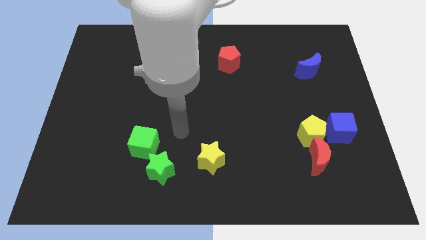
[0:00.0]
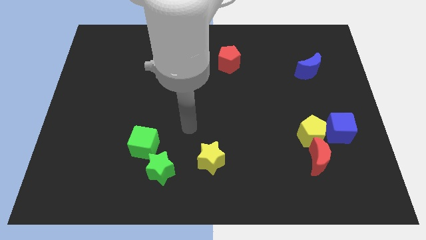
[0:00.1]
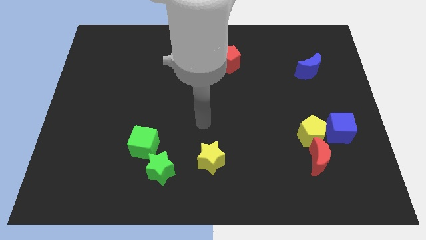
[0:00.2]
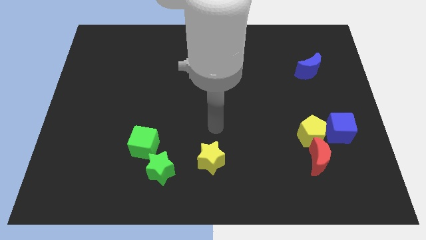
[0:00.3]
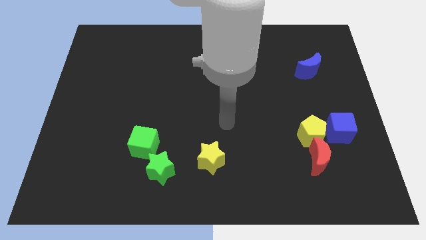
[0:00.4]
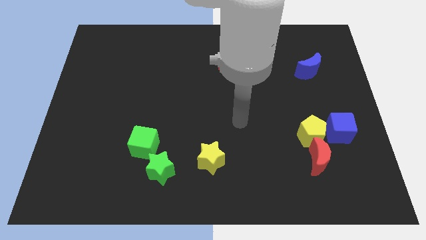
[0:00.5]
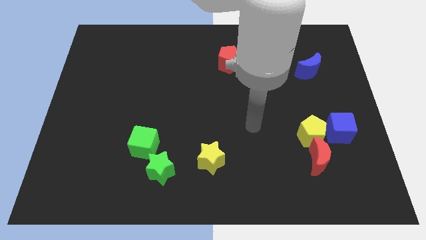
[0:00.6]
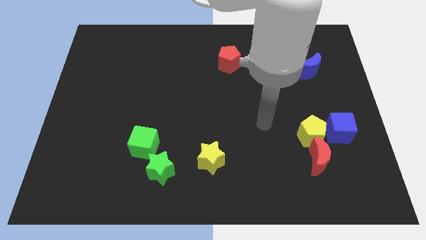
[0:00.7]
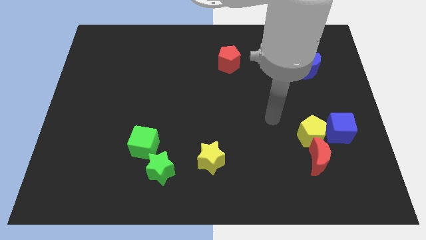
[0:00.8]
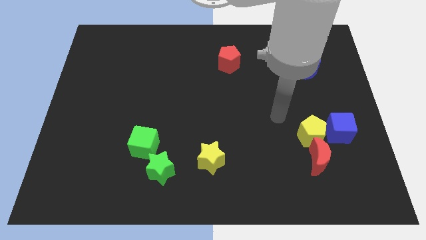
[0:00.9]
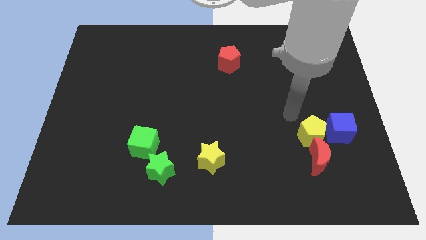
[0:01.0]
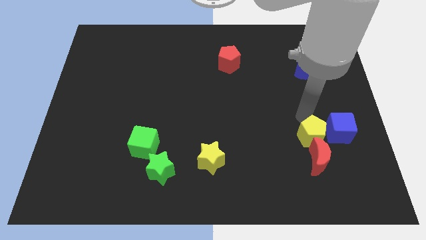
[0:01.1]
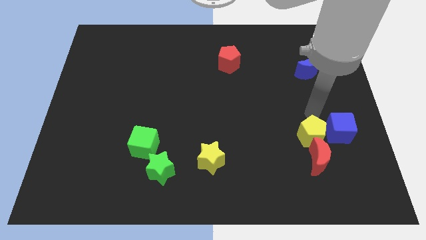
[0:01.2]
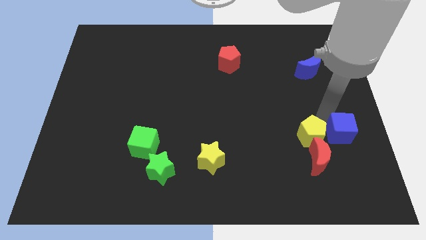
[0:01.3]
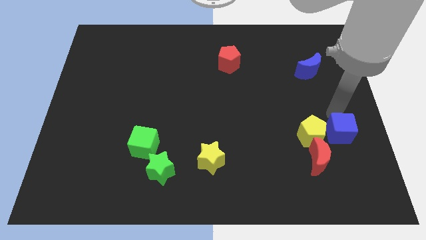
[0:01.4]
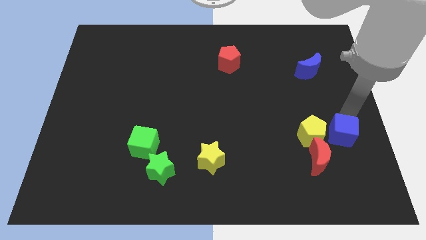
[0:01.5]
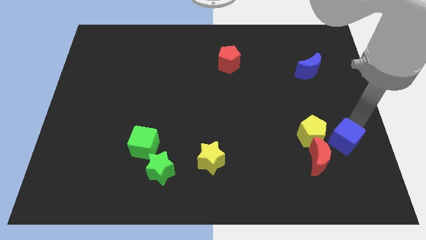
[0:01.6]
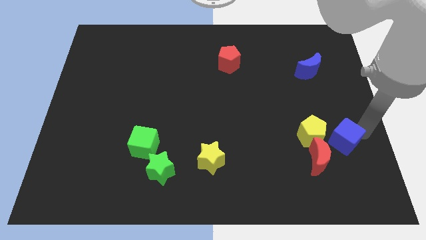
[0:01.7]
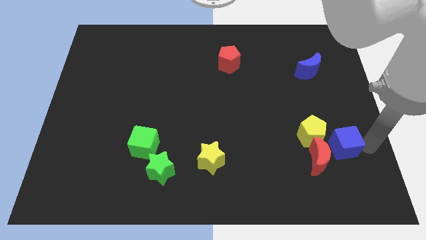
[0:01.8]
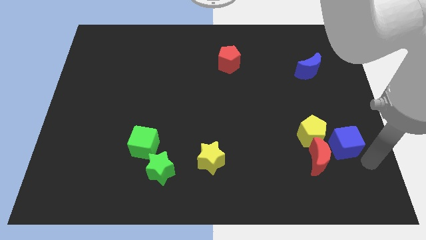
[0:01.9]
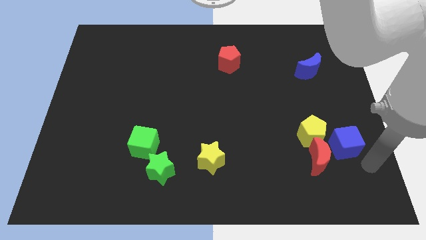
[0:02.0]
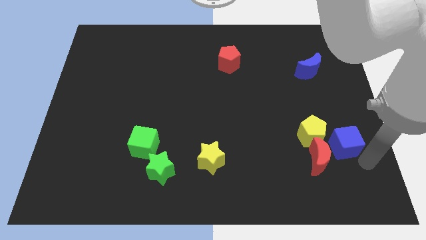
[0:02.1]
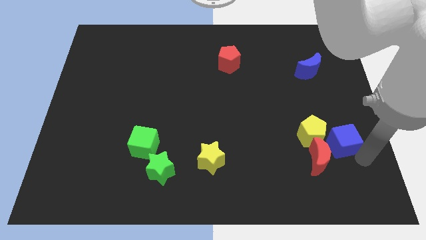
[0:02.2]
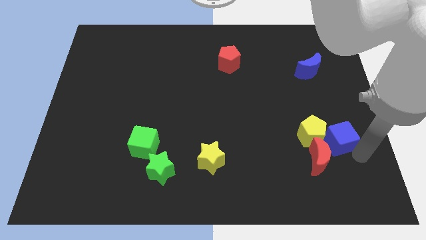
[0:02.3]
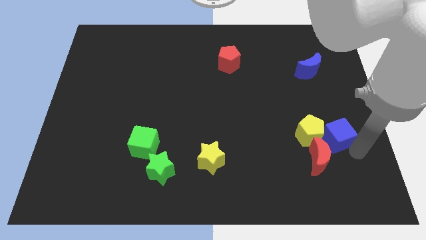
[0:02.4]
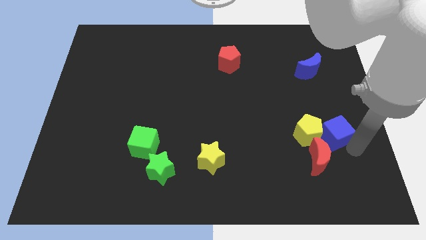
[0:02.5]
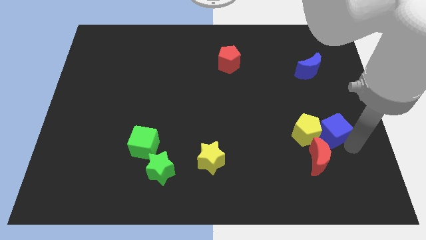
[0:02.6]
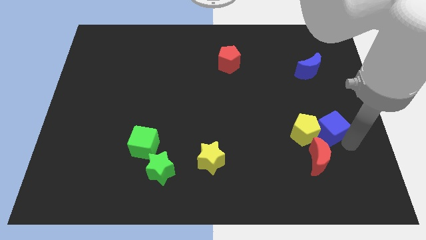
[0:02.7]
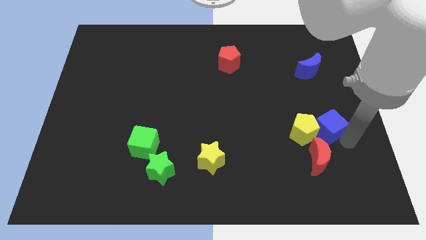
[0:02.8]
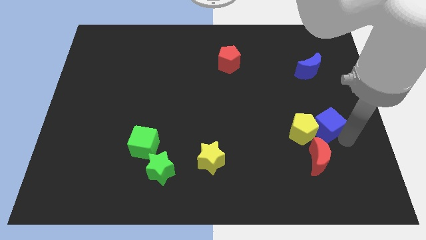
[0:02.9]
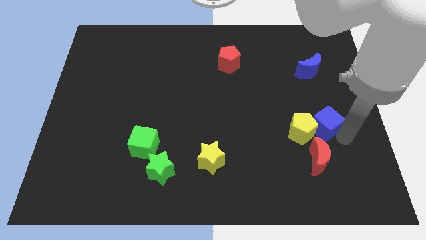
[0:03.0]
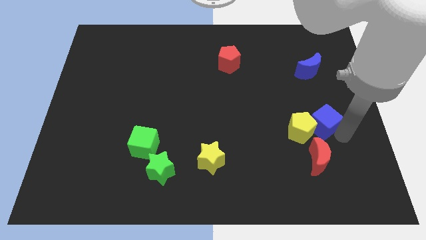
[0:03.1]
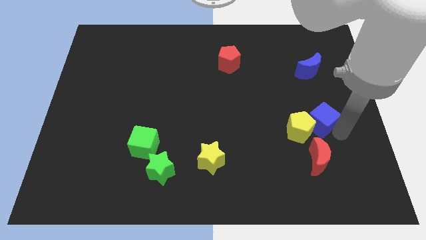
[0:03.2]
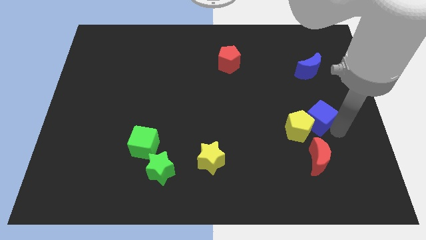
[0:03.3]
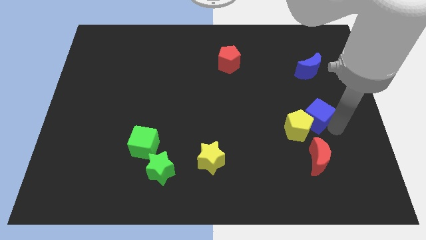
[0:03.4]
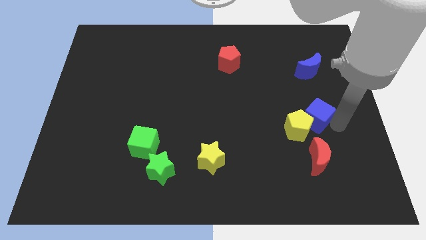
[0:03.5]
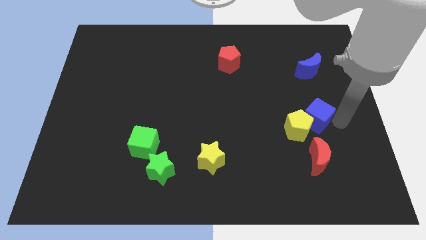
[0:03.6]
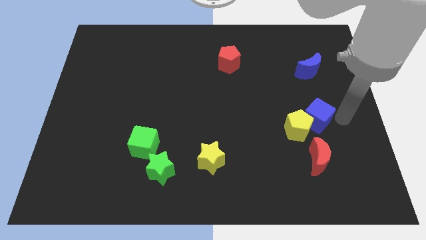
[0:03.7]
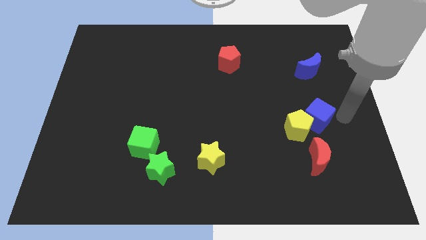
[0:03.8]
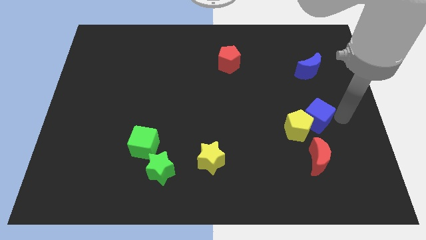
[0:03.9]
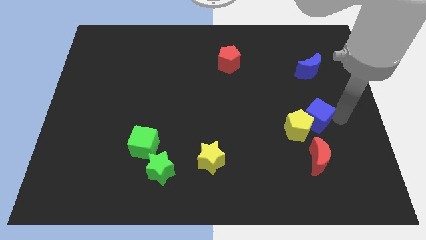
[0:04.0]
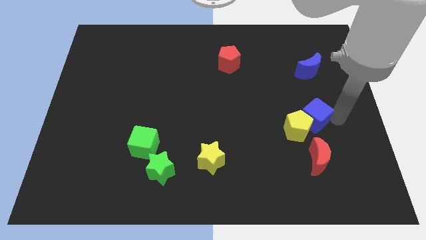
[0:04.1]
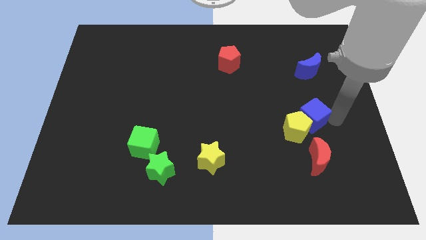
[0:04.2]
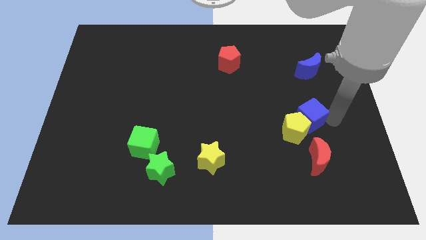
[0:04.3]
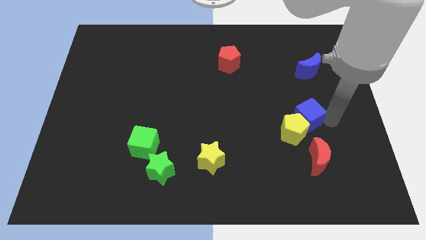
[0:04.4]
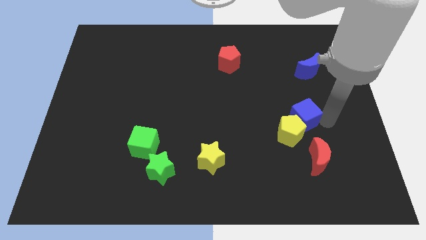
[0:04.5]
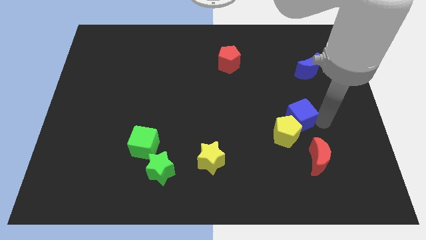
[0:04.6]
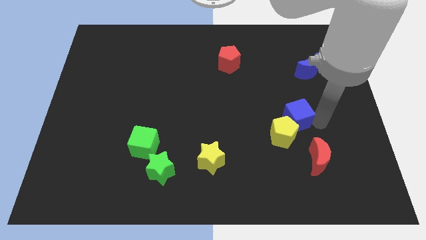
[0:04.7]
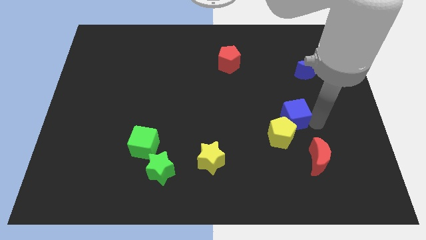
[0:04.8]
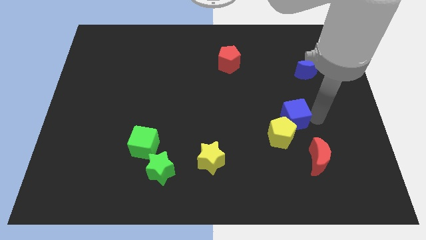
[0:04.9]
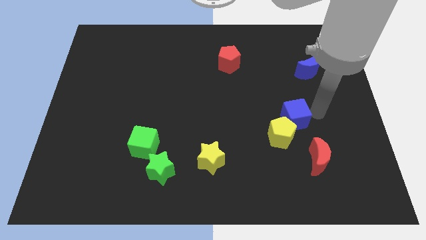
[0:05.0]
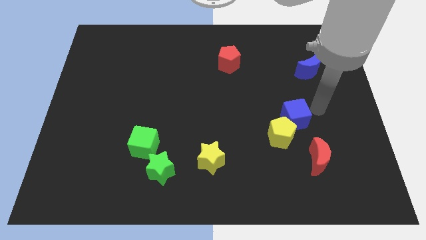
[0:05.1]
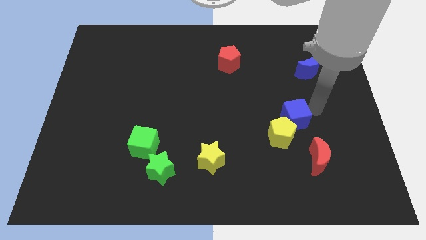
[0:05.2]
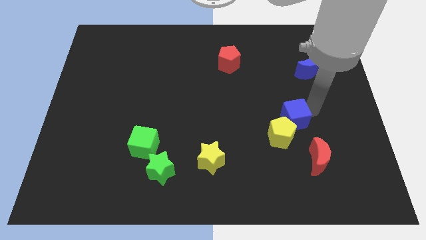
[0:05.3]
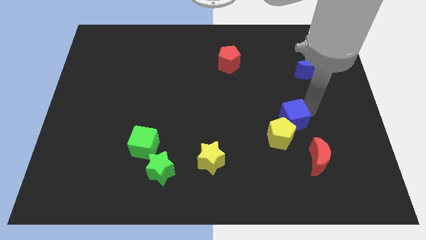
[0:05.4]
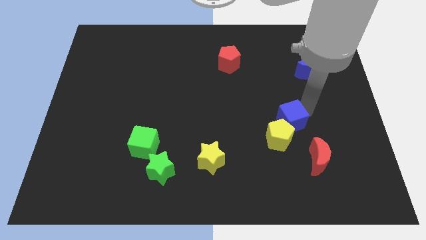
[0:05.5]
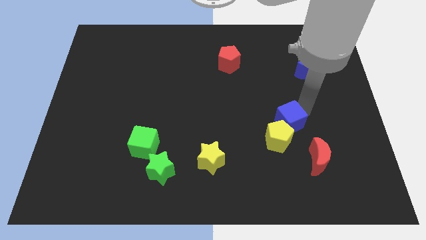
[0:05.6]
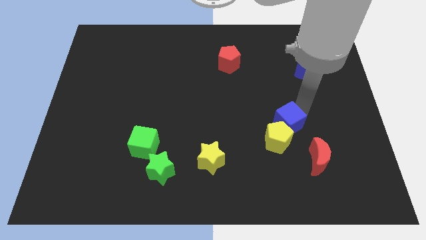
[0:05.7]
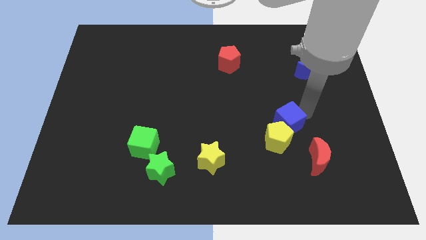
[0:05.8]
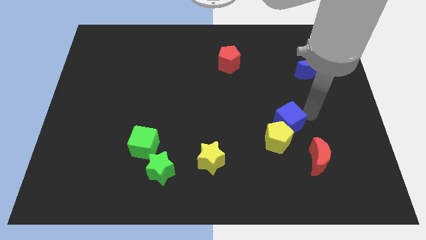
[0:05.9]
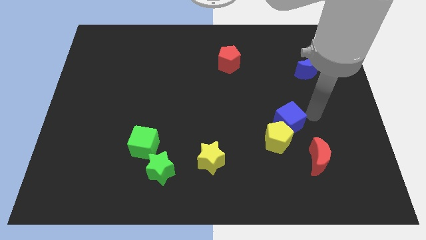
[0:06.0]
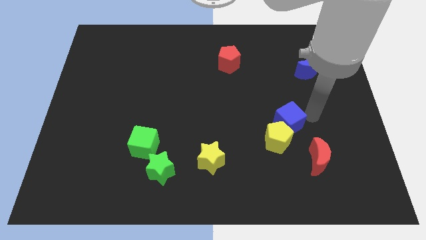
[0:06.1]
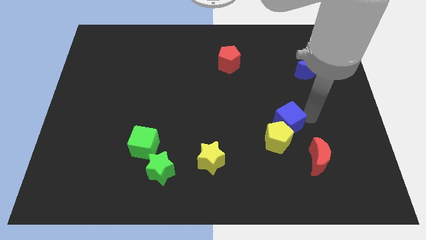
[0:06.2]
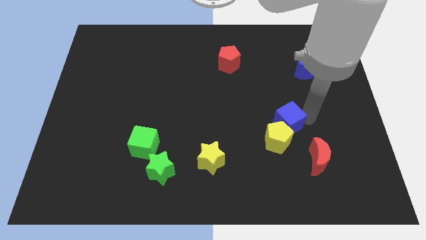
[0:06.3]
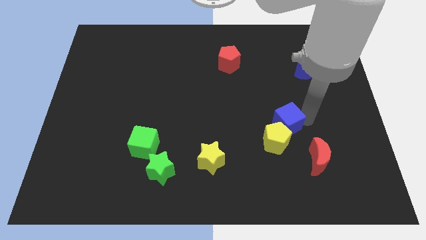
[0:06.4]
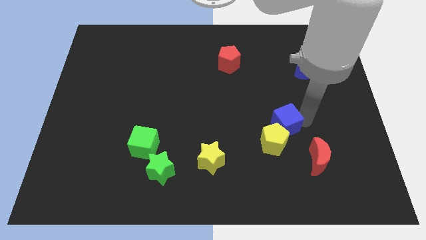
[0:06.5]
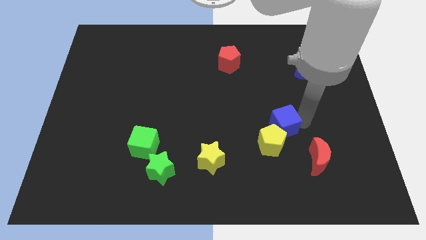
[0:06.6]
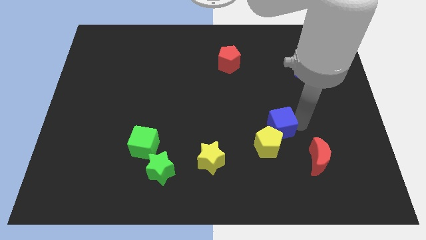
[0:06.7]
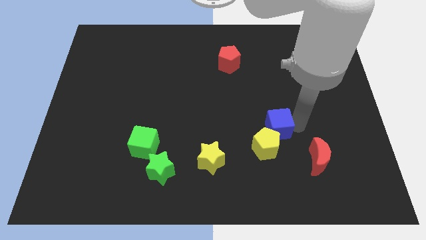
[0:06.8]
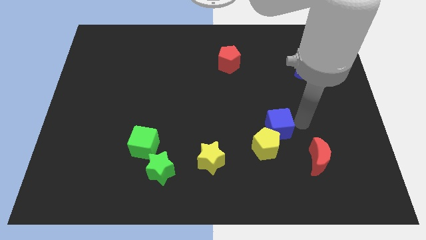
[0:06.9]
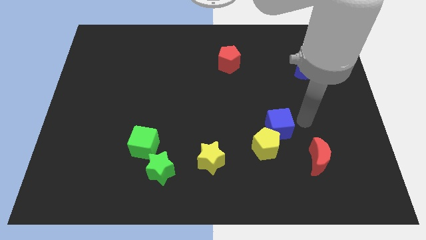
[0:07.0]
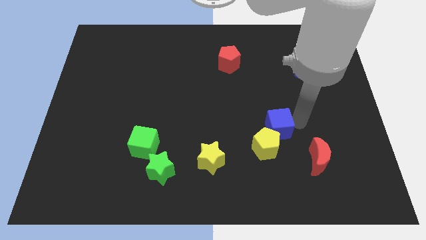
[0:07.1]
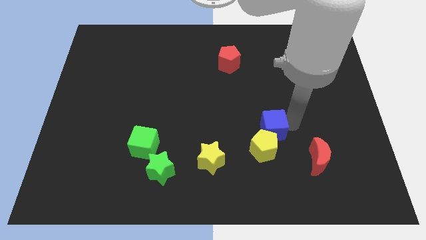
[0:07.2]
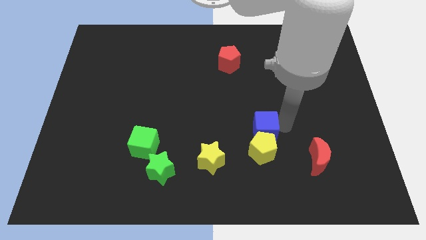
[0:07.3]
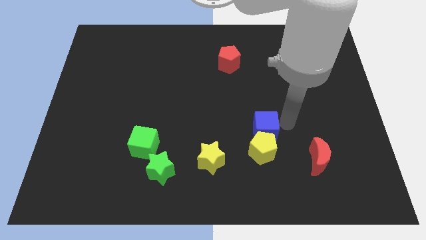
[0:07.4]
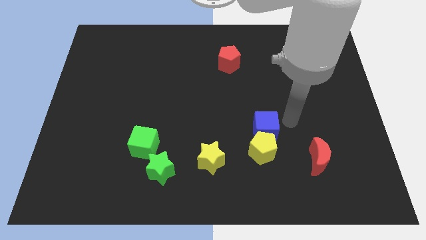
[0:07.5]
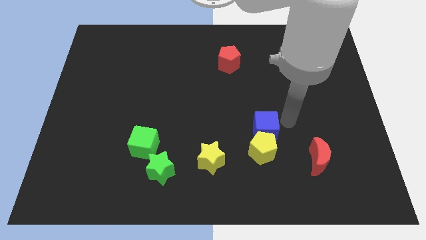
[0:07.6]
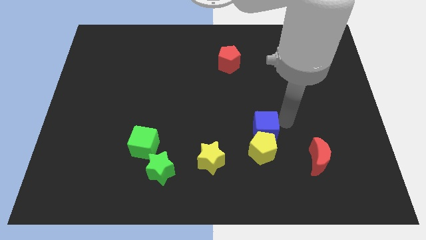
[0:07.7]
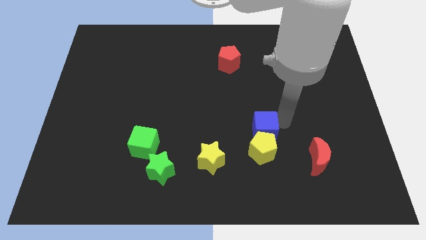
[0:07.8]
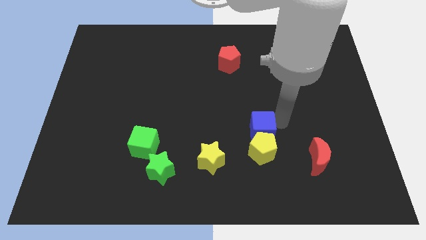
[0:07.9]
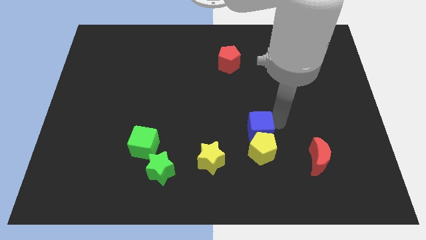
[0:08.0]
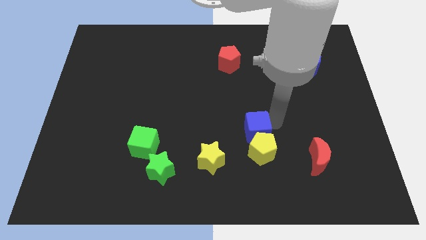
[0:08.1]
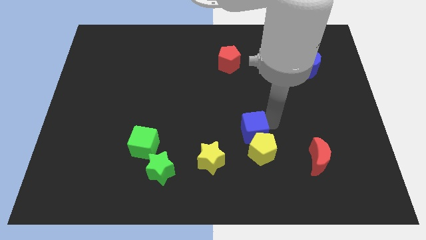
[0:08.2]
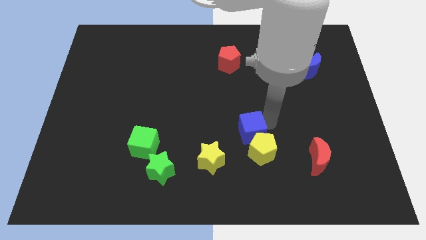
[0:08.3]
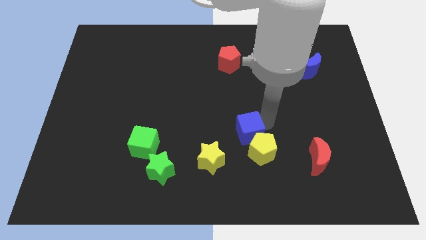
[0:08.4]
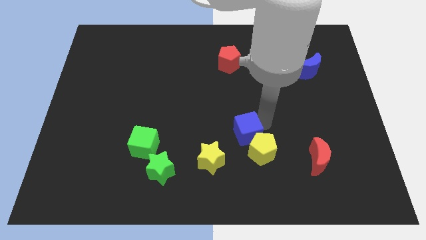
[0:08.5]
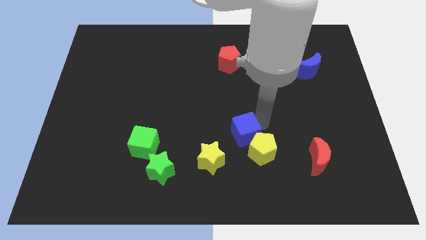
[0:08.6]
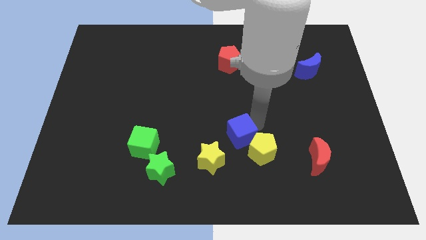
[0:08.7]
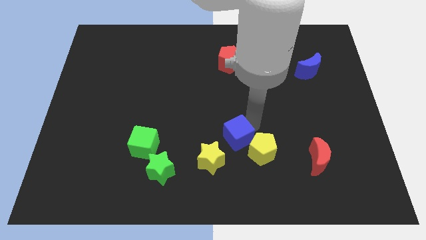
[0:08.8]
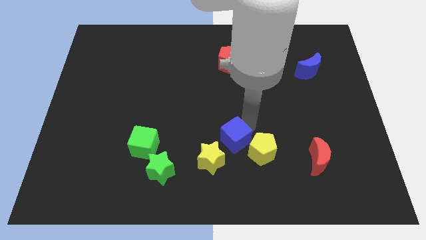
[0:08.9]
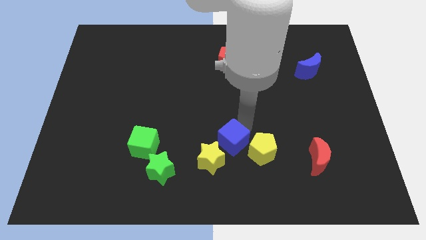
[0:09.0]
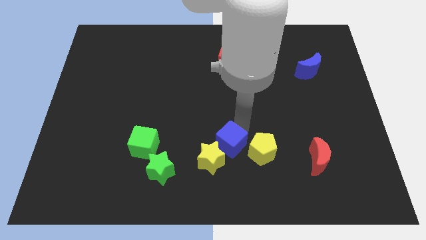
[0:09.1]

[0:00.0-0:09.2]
slide the blue cube close to the yellow star
